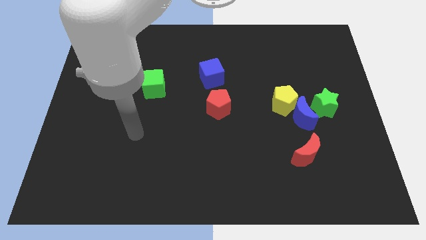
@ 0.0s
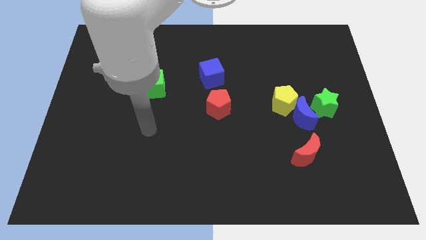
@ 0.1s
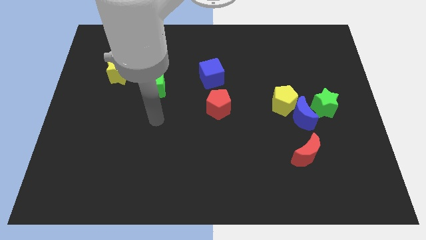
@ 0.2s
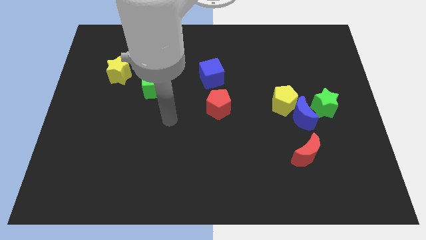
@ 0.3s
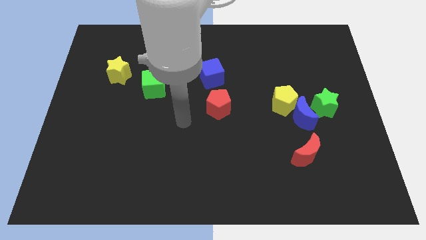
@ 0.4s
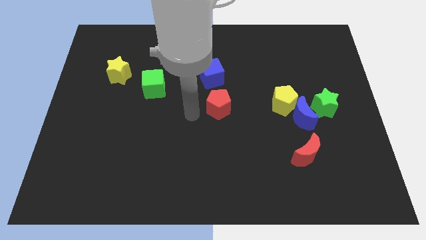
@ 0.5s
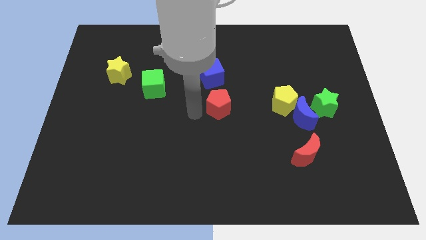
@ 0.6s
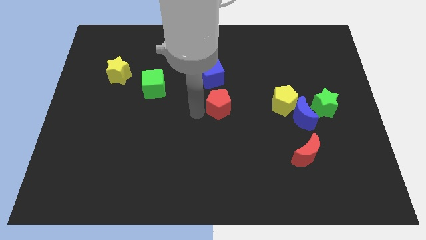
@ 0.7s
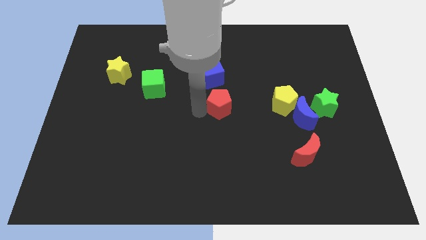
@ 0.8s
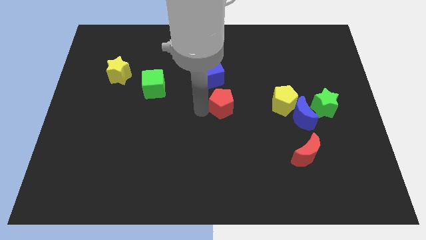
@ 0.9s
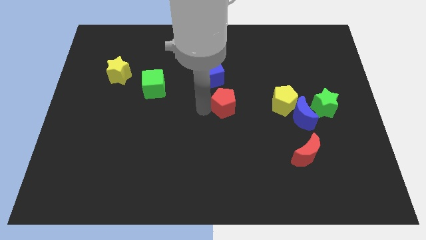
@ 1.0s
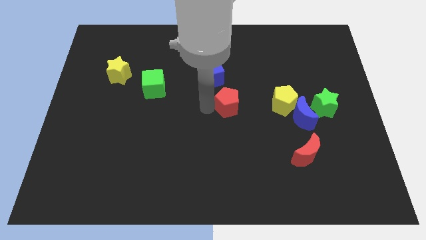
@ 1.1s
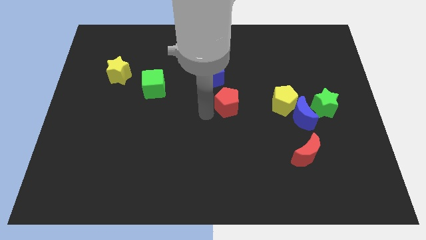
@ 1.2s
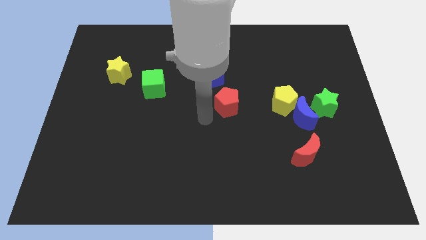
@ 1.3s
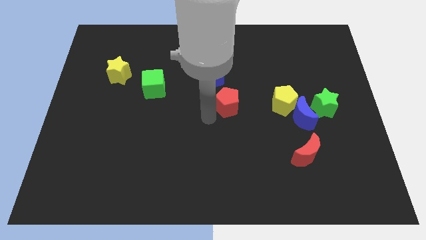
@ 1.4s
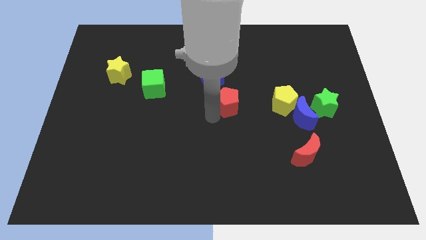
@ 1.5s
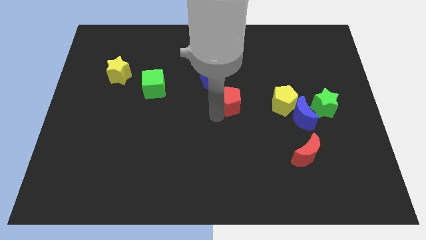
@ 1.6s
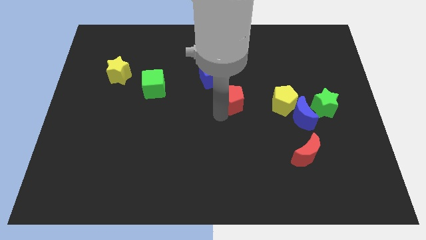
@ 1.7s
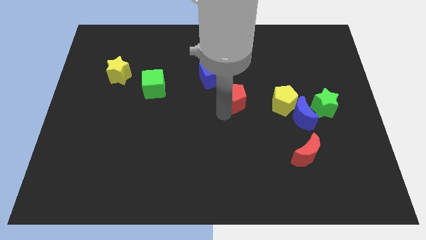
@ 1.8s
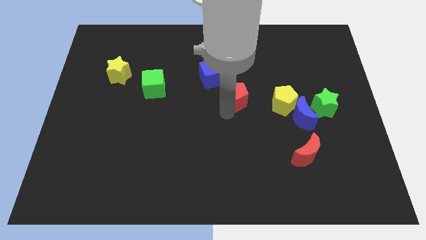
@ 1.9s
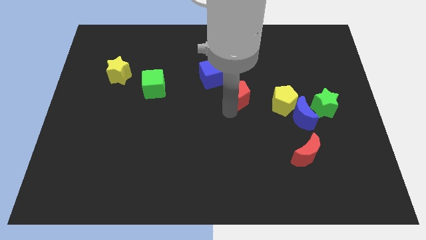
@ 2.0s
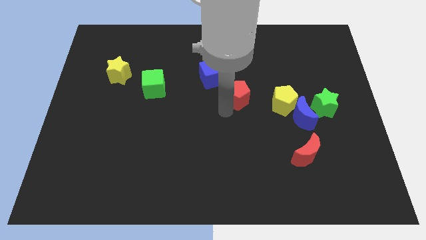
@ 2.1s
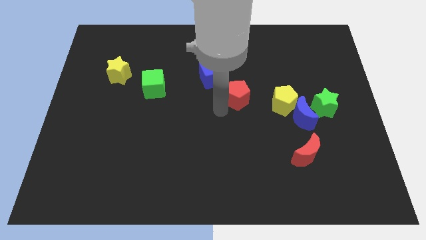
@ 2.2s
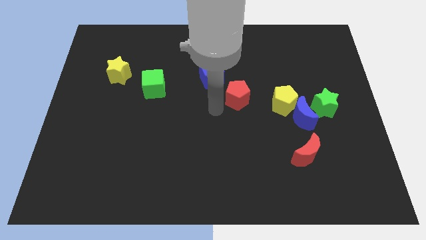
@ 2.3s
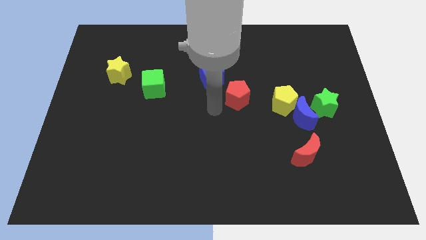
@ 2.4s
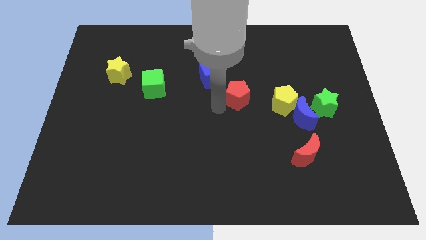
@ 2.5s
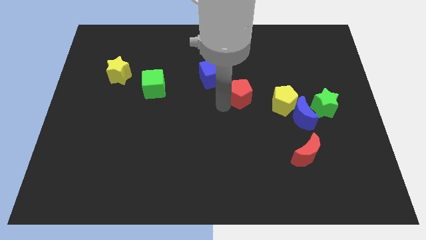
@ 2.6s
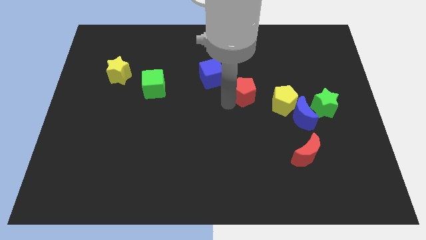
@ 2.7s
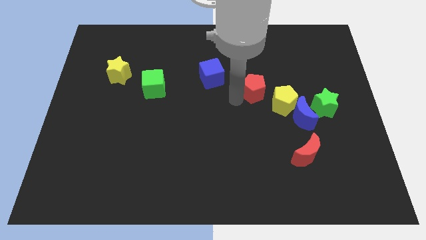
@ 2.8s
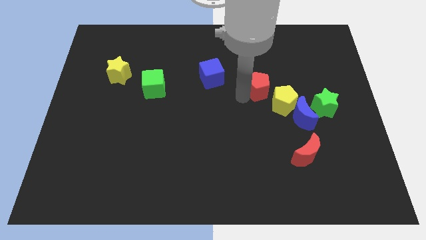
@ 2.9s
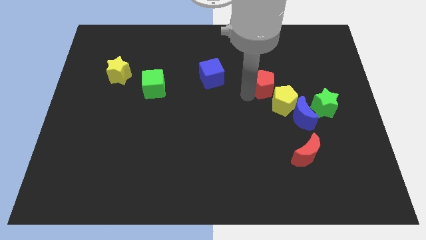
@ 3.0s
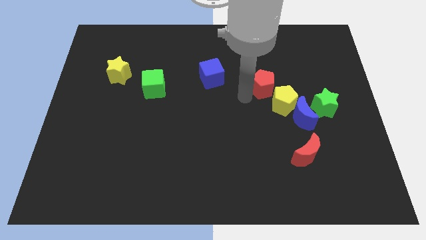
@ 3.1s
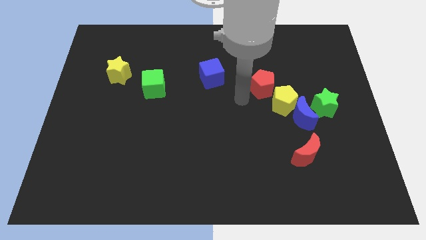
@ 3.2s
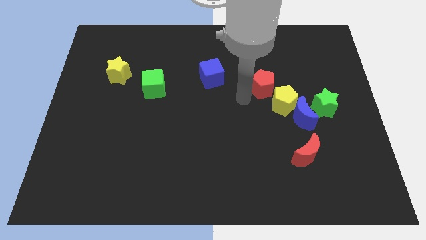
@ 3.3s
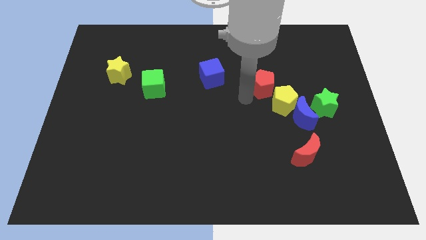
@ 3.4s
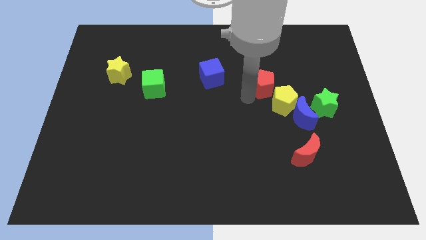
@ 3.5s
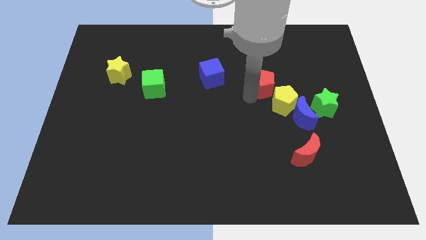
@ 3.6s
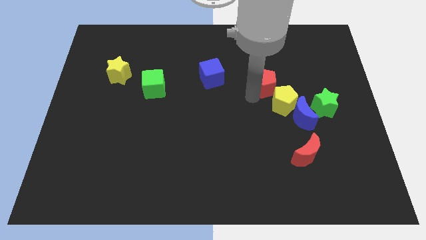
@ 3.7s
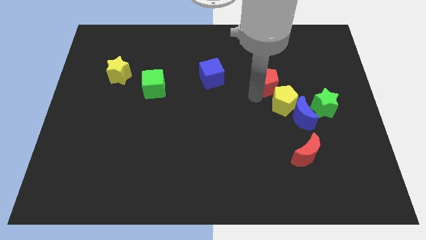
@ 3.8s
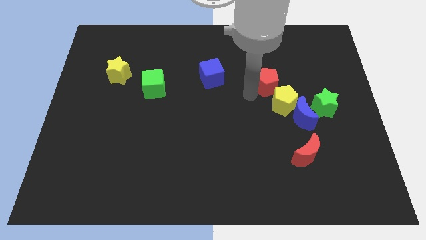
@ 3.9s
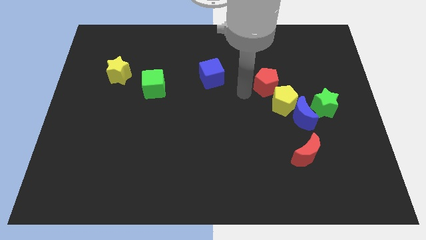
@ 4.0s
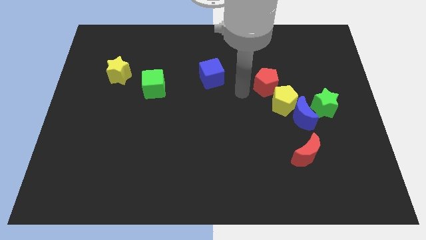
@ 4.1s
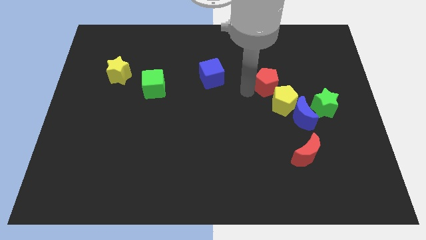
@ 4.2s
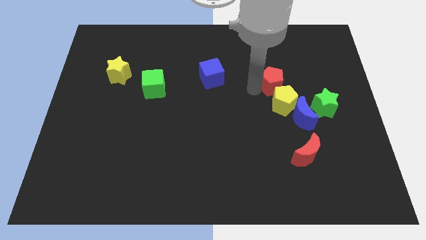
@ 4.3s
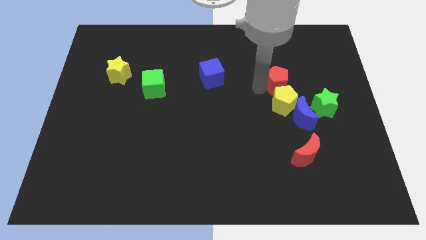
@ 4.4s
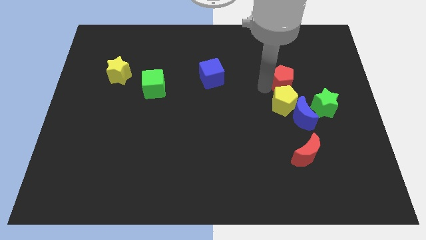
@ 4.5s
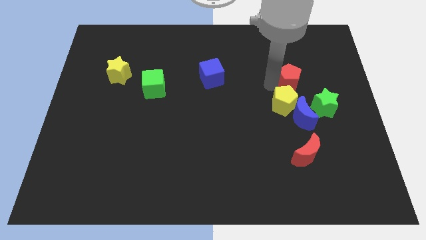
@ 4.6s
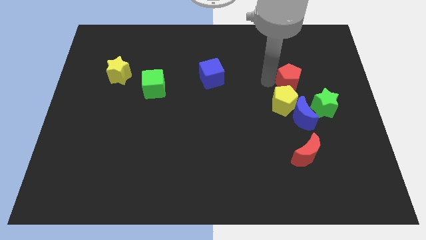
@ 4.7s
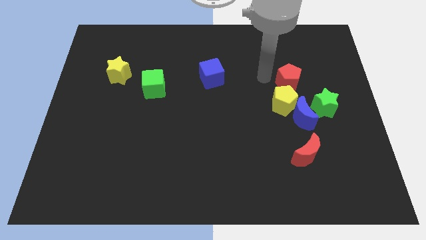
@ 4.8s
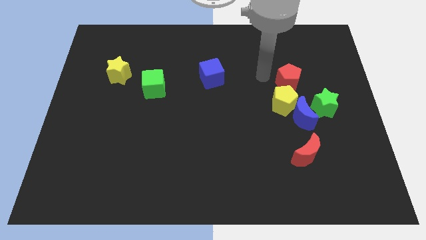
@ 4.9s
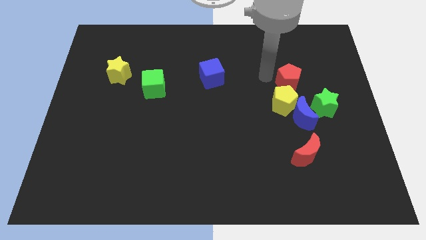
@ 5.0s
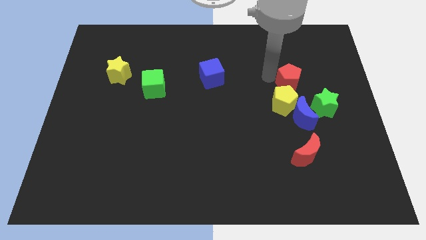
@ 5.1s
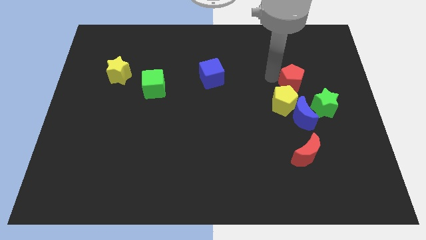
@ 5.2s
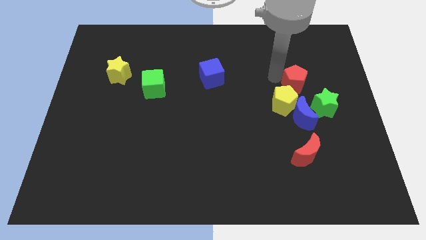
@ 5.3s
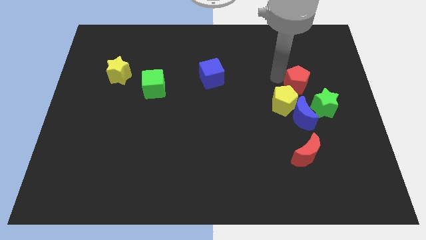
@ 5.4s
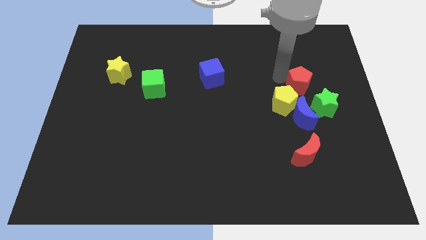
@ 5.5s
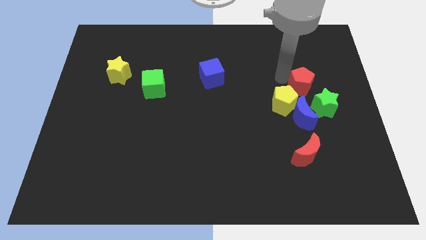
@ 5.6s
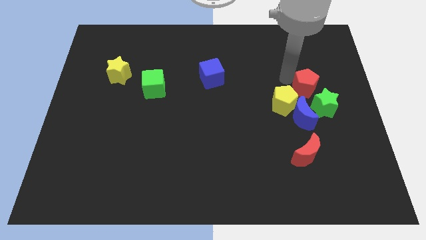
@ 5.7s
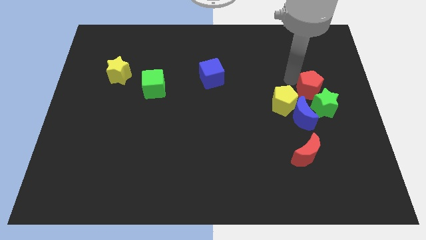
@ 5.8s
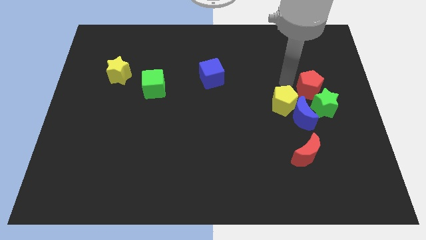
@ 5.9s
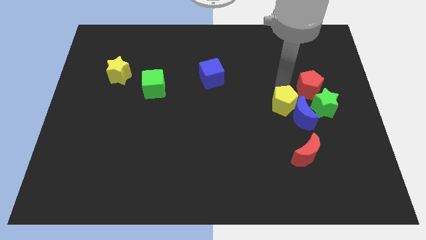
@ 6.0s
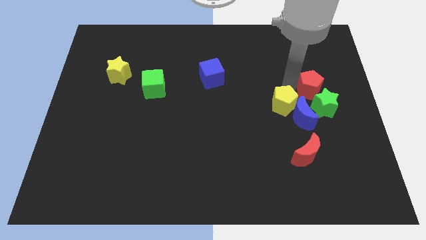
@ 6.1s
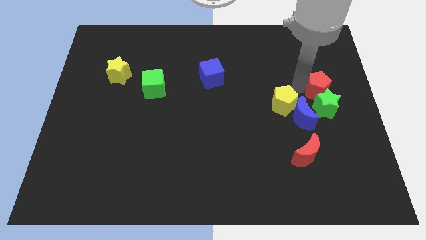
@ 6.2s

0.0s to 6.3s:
push the red pentagon to the right side

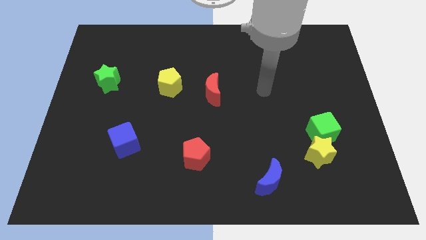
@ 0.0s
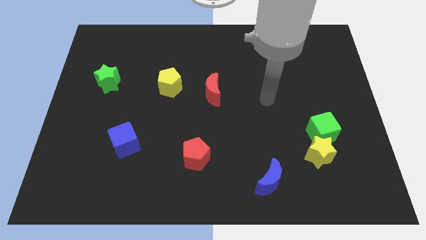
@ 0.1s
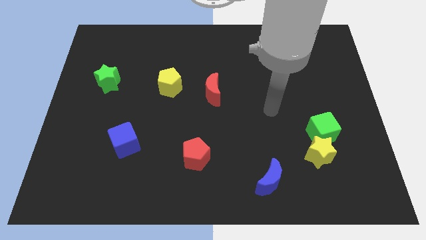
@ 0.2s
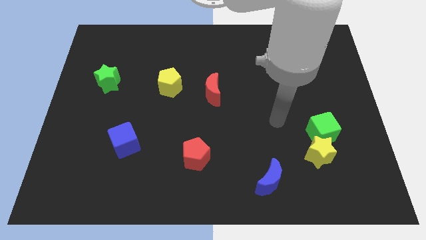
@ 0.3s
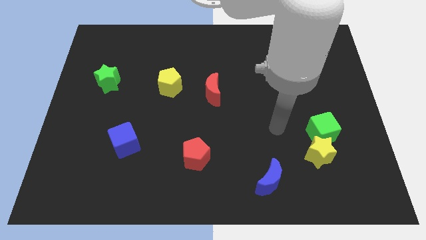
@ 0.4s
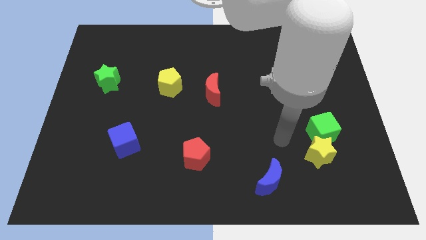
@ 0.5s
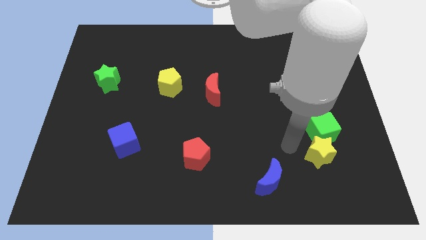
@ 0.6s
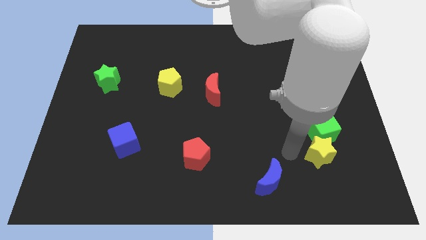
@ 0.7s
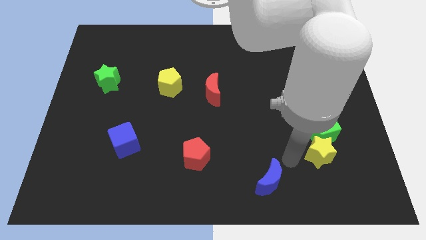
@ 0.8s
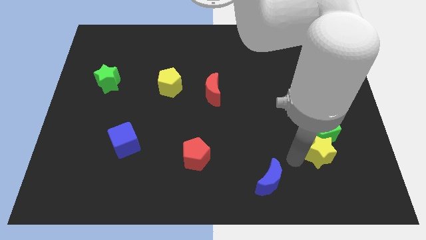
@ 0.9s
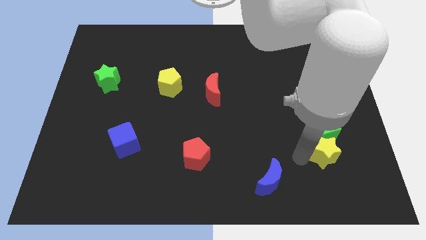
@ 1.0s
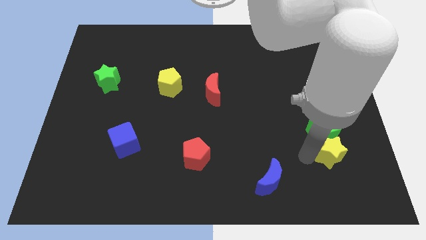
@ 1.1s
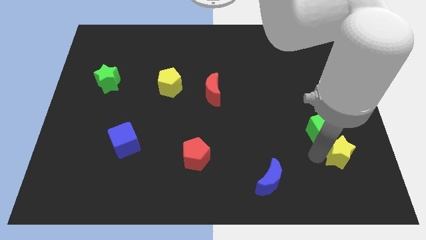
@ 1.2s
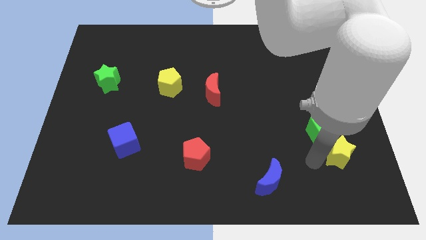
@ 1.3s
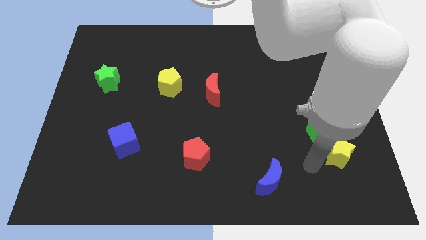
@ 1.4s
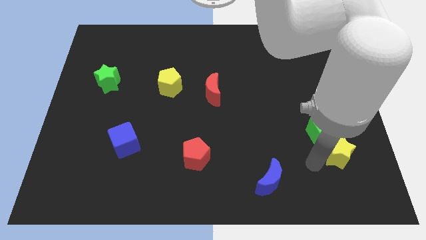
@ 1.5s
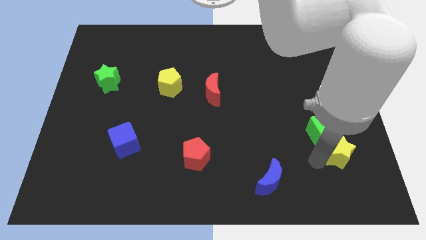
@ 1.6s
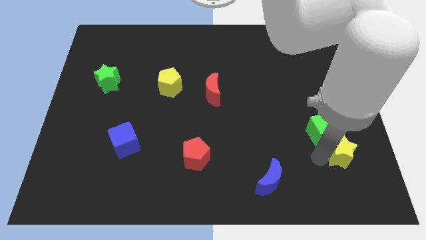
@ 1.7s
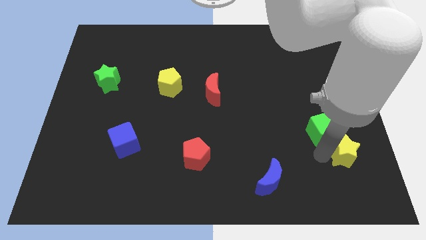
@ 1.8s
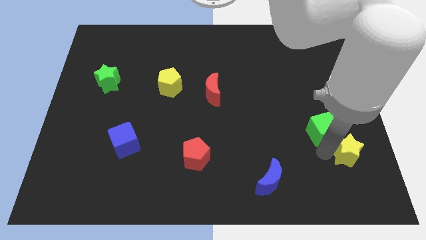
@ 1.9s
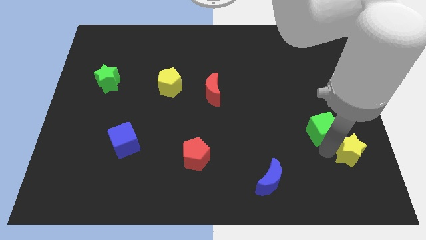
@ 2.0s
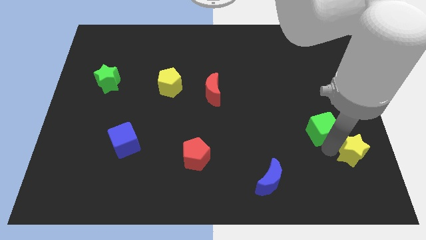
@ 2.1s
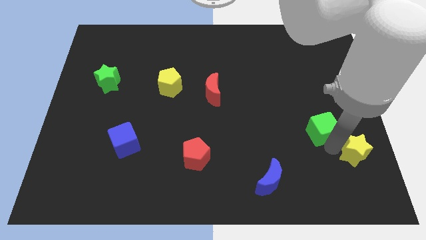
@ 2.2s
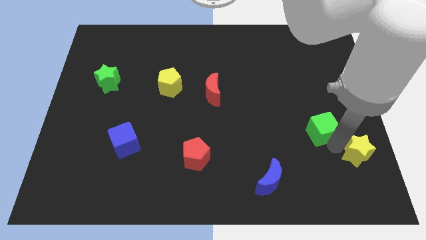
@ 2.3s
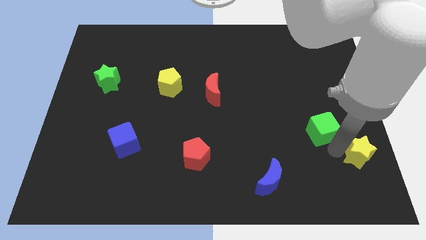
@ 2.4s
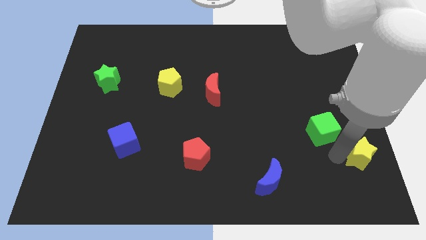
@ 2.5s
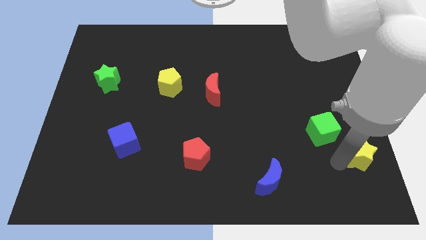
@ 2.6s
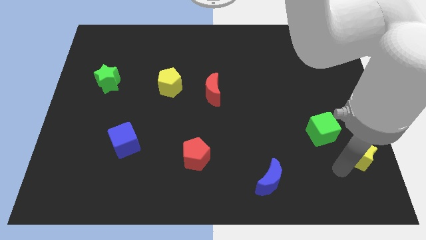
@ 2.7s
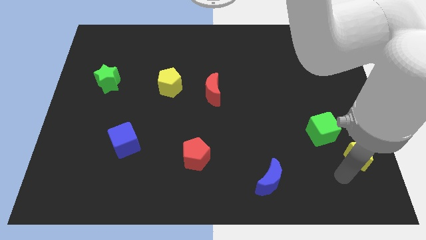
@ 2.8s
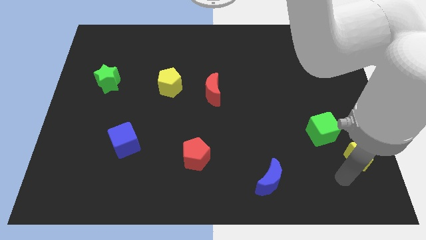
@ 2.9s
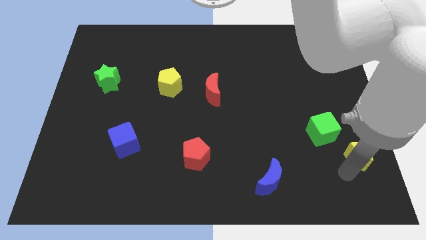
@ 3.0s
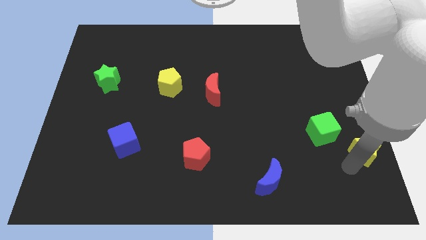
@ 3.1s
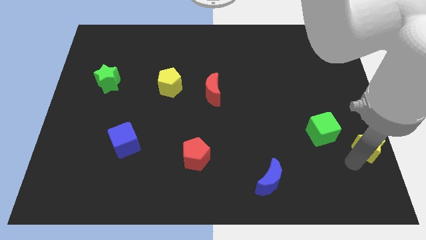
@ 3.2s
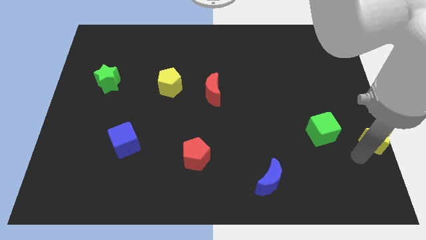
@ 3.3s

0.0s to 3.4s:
put the yellow star to the center right
